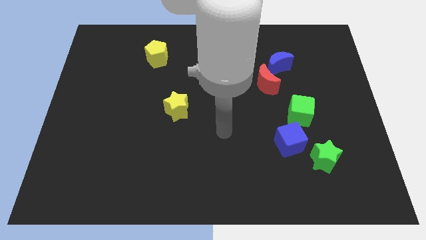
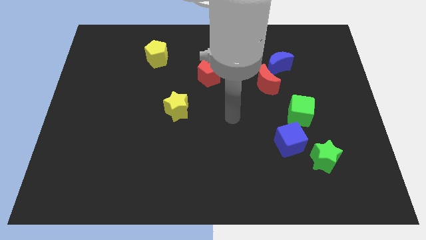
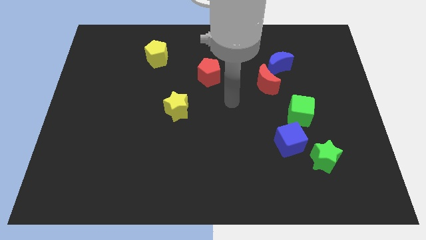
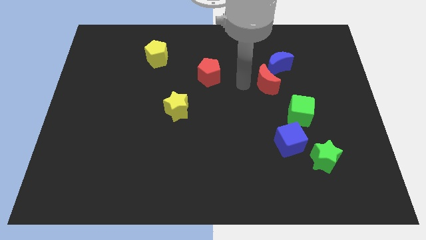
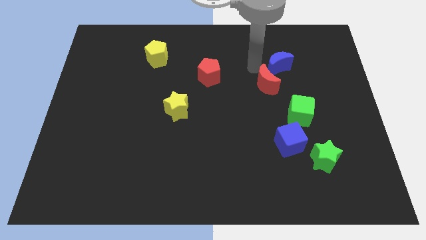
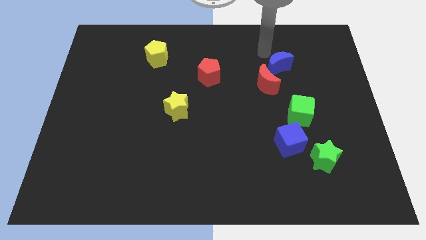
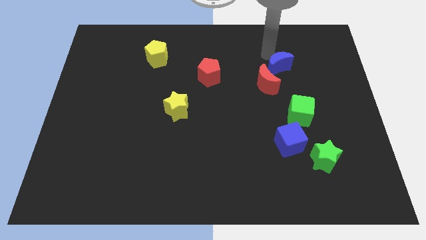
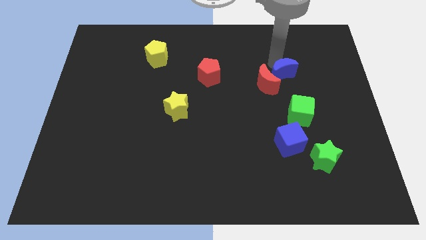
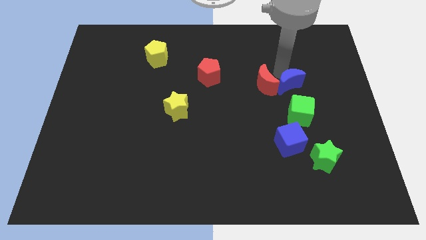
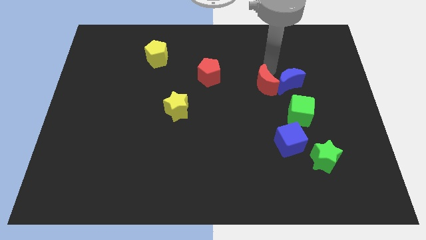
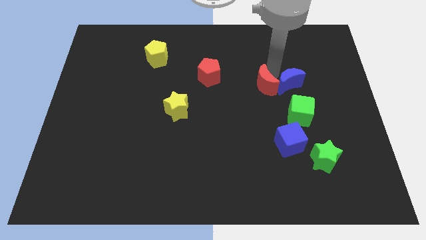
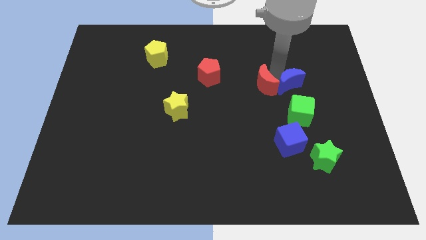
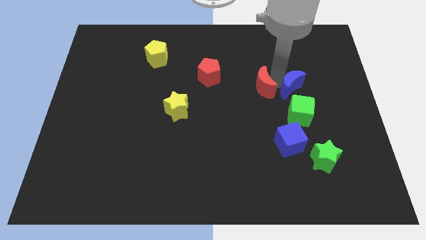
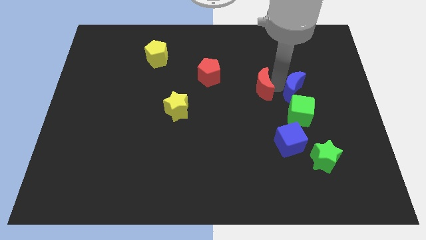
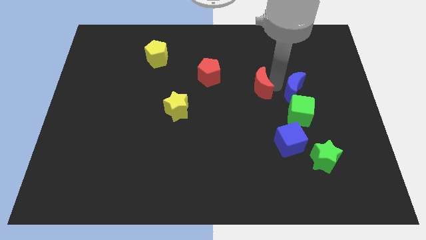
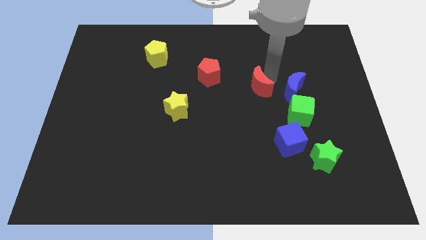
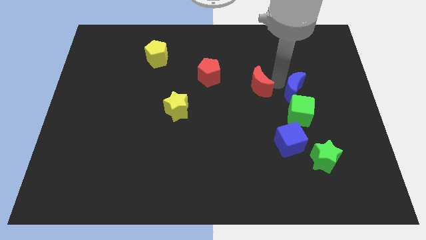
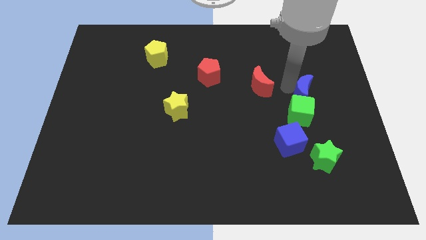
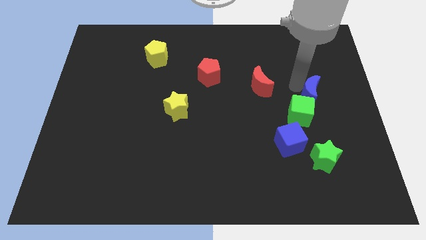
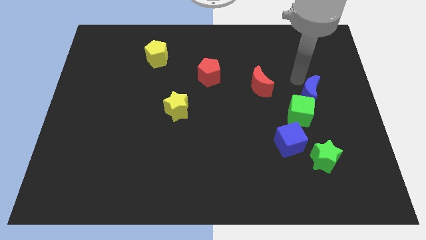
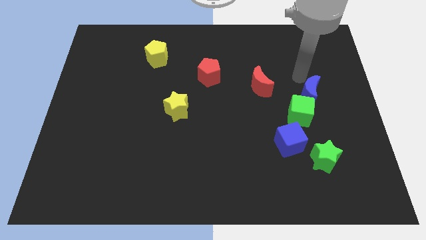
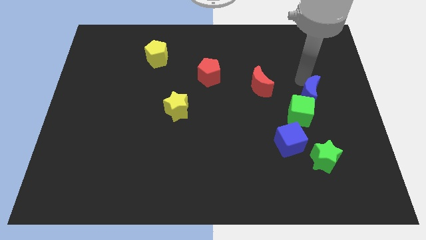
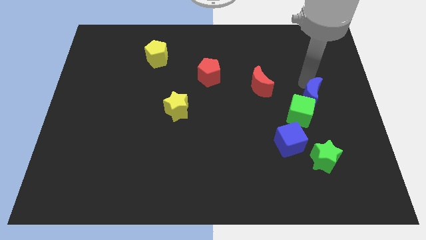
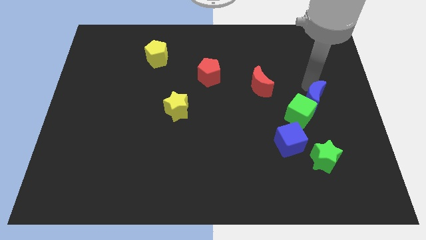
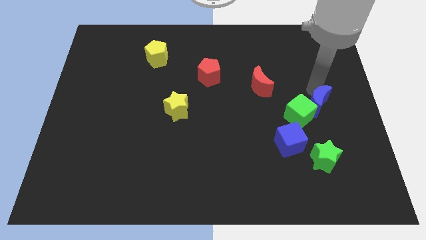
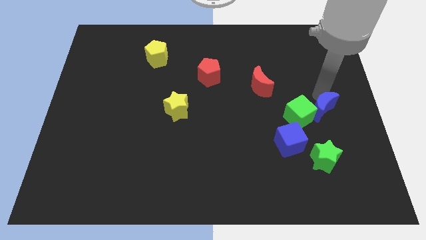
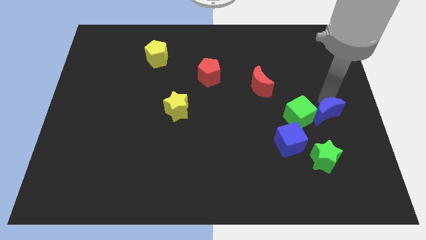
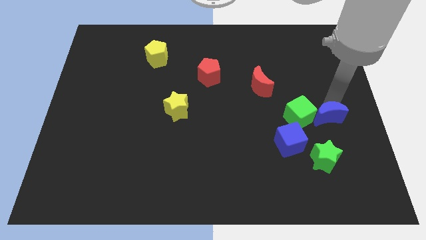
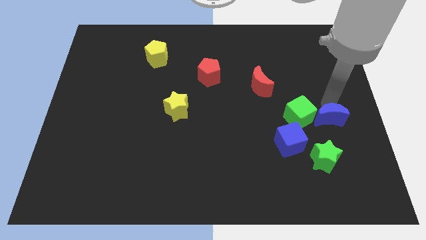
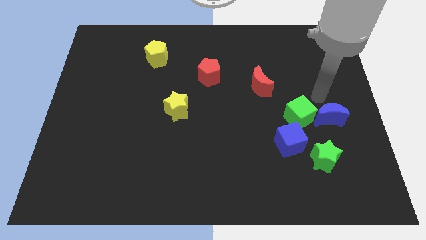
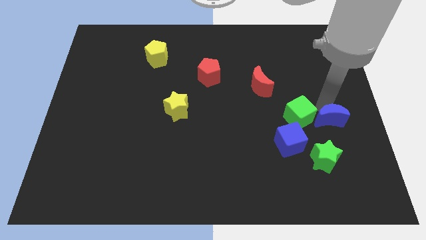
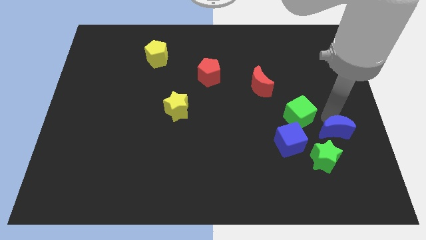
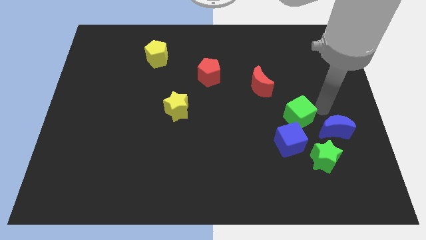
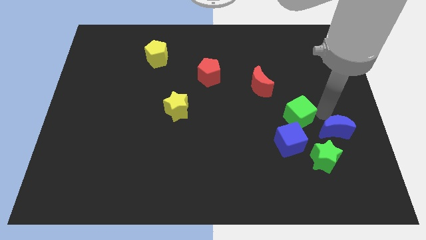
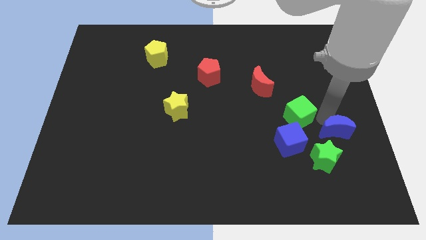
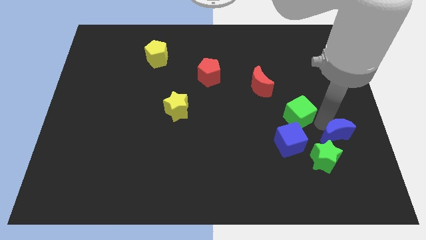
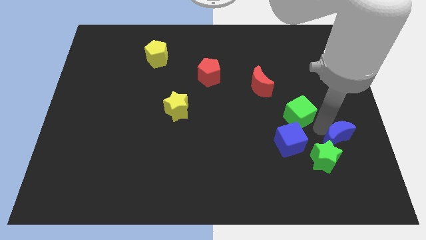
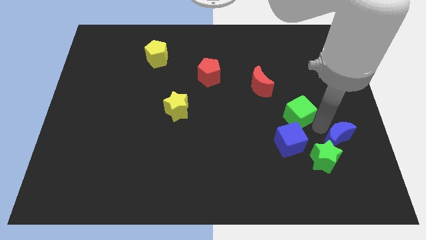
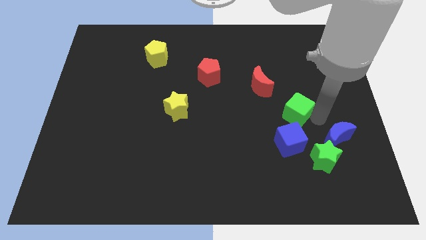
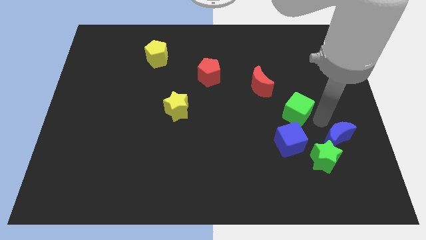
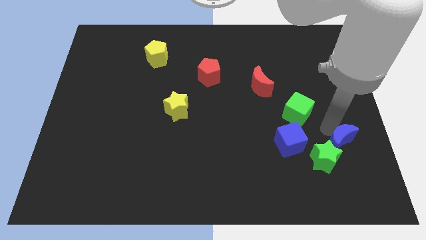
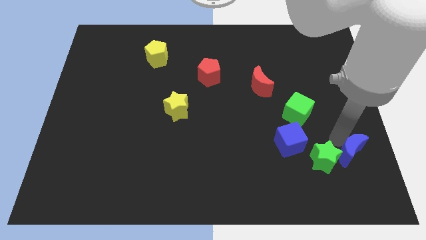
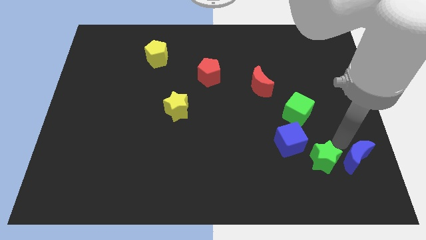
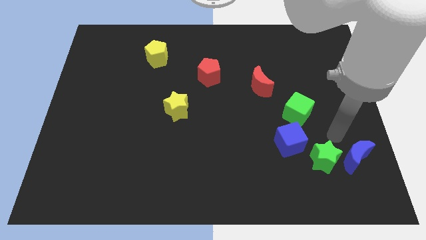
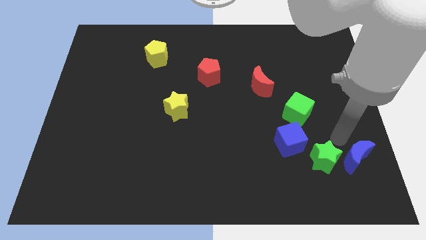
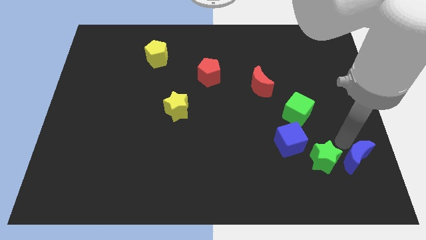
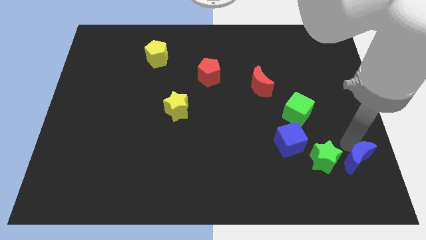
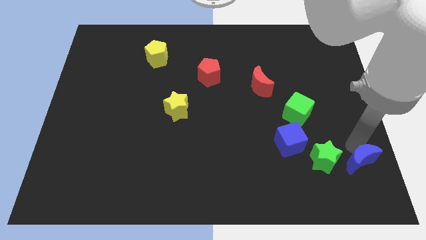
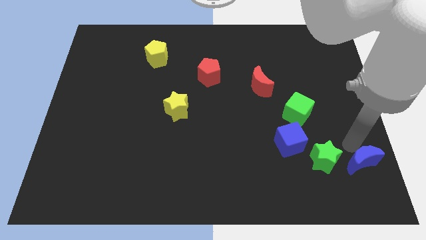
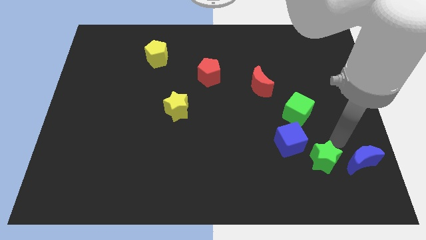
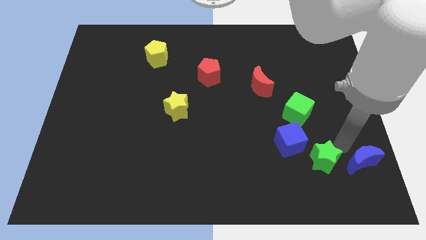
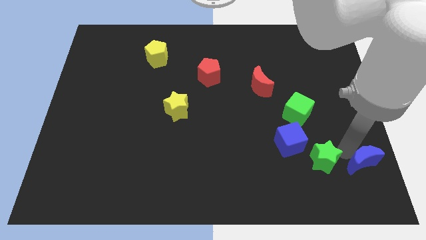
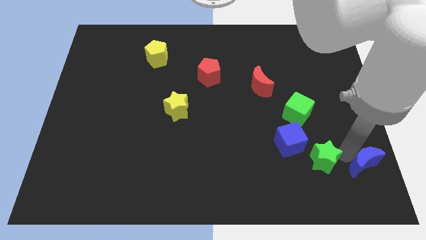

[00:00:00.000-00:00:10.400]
move the blue moon to the bottom right of the board

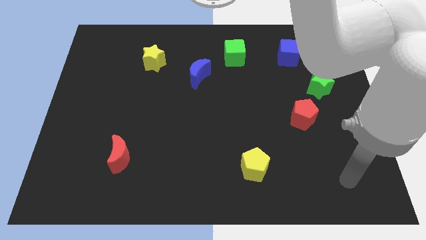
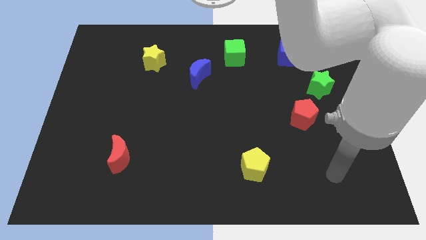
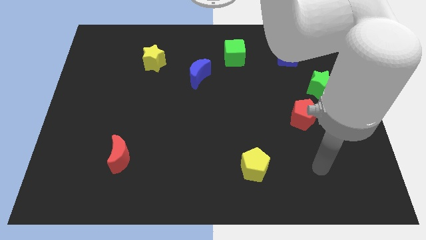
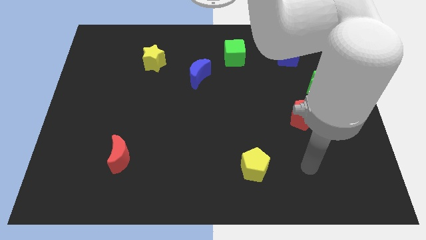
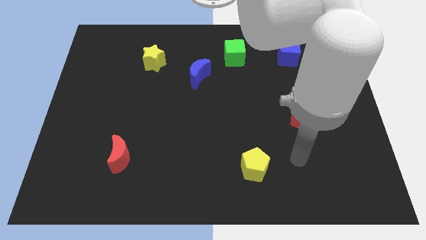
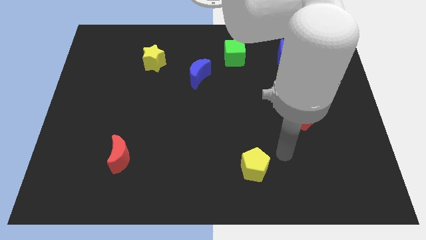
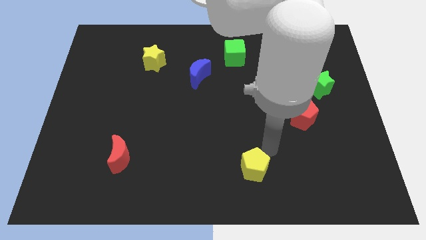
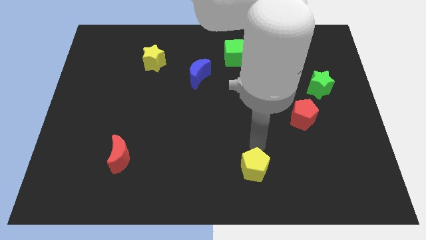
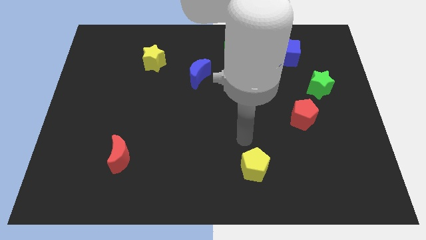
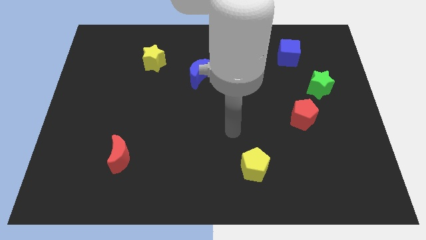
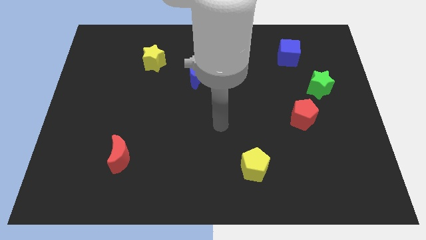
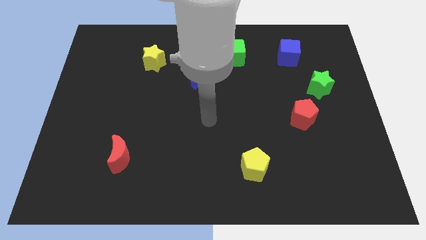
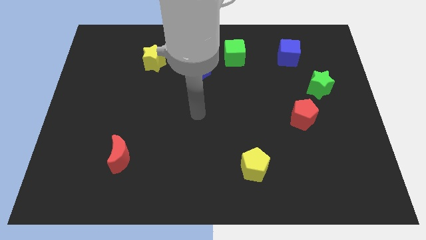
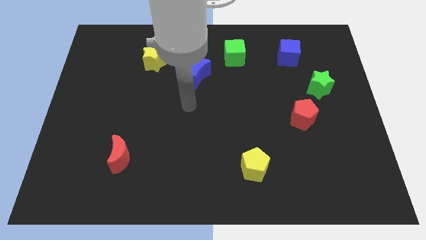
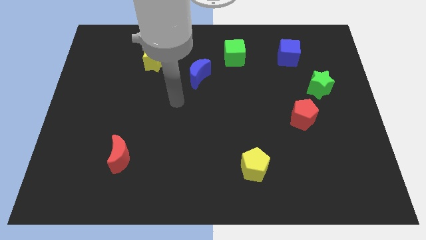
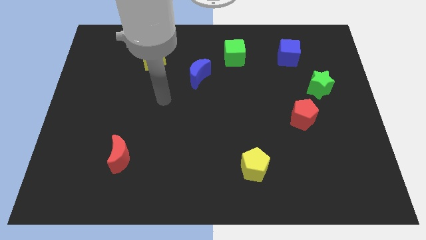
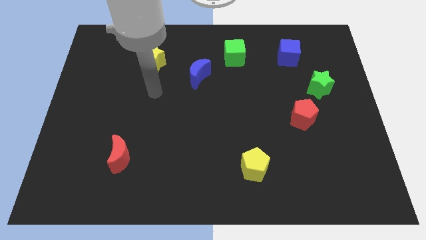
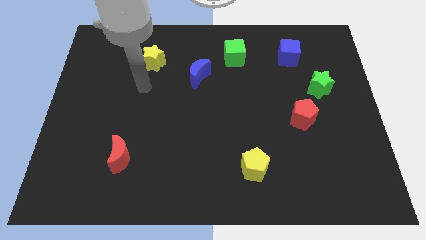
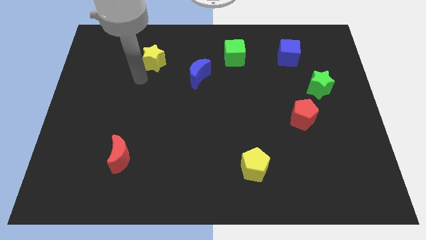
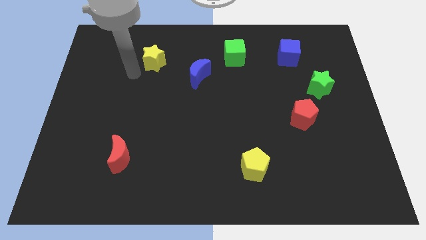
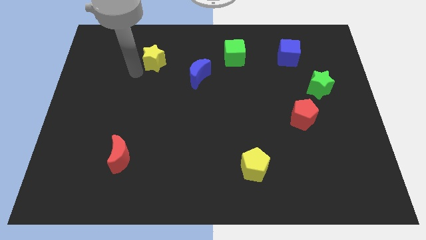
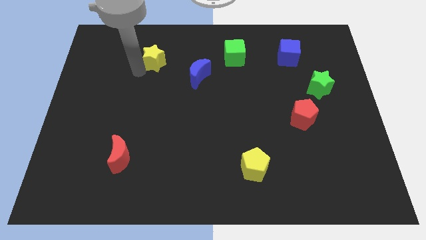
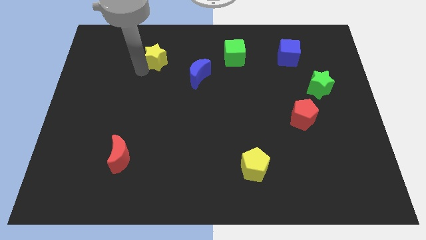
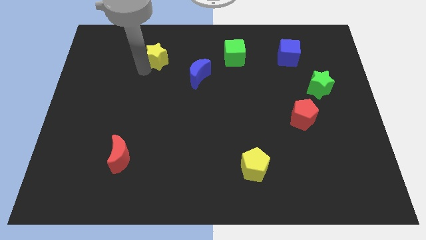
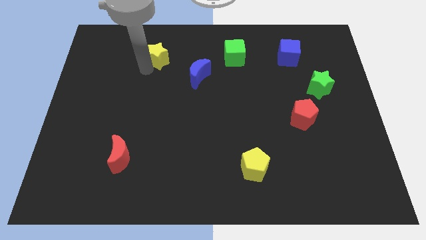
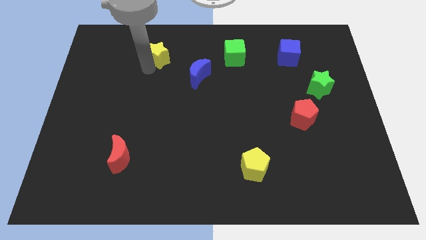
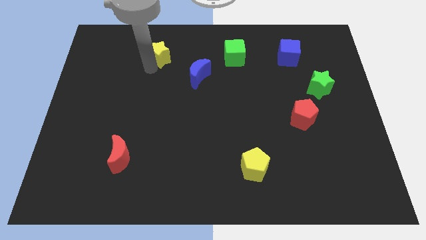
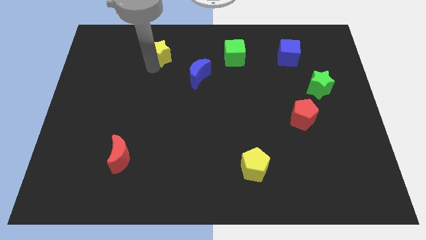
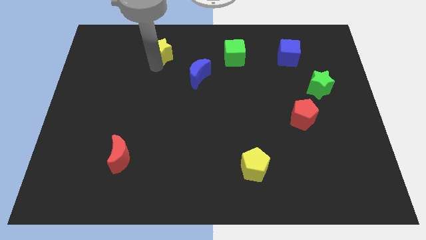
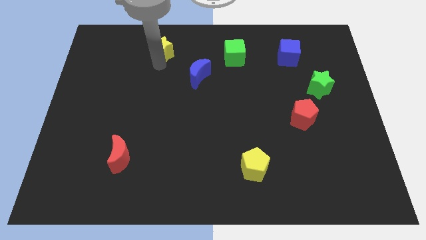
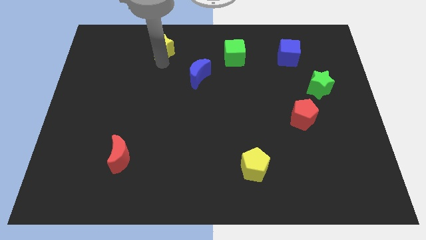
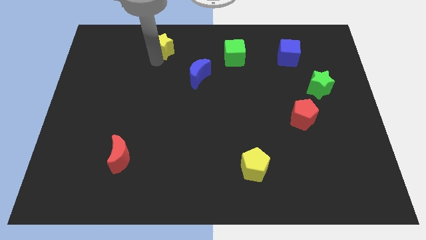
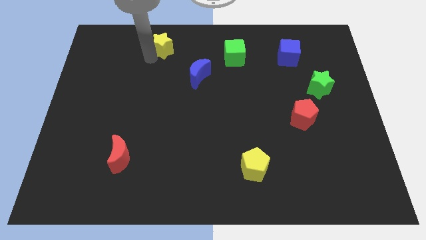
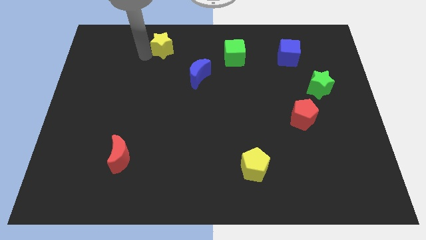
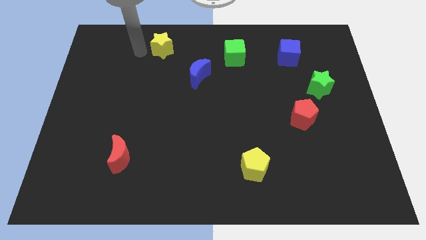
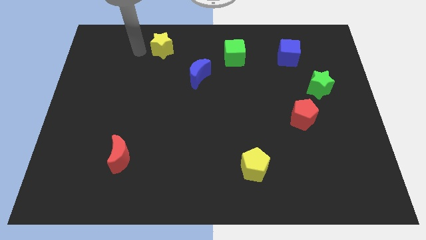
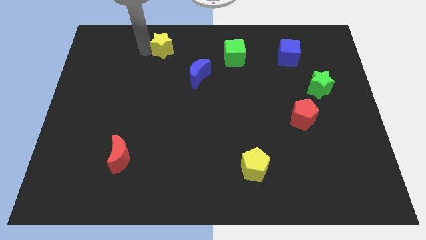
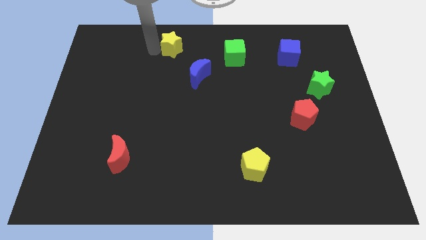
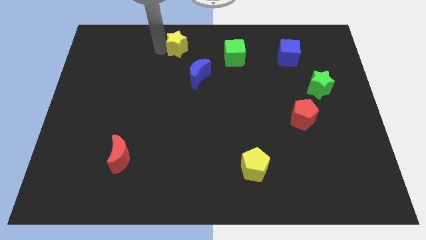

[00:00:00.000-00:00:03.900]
put the yellow star to the towards your base
